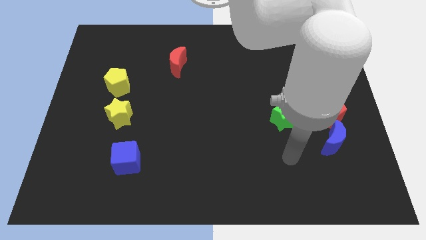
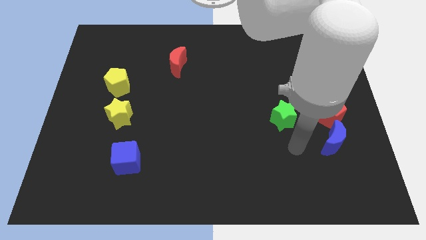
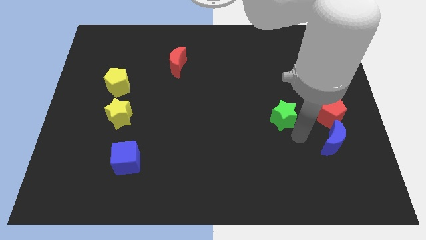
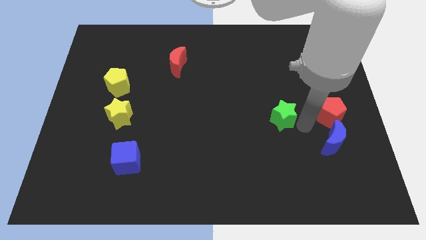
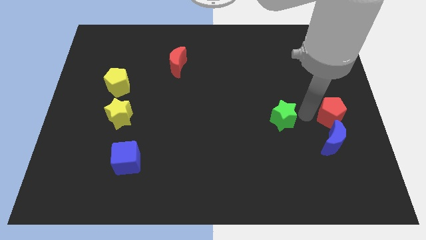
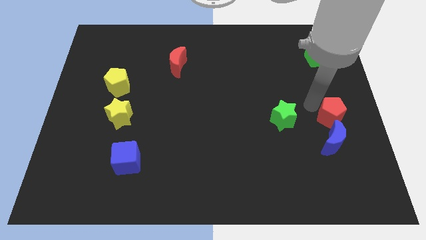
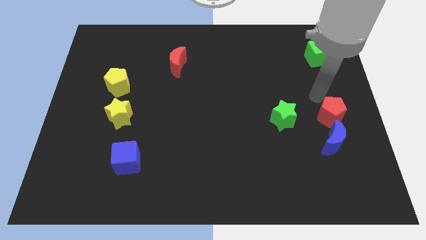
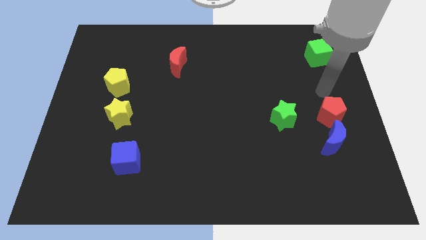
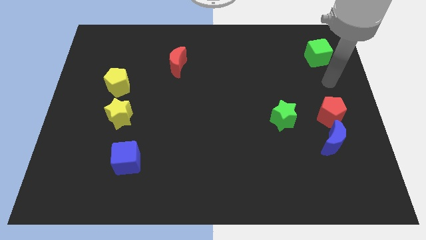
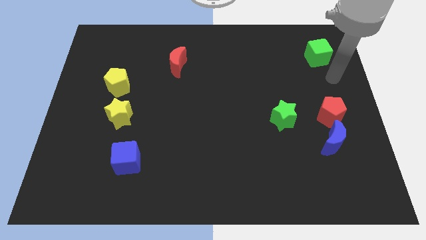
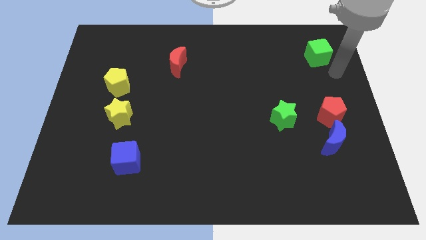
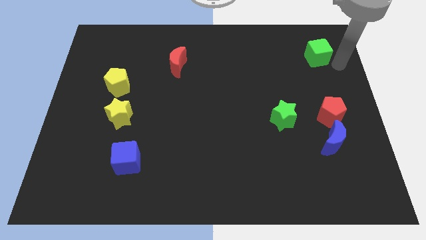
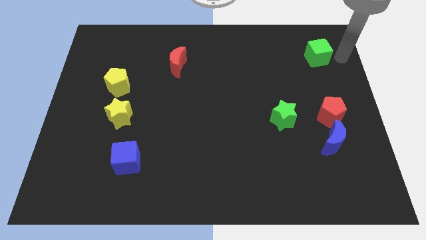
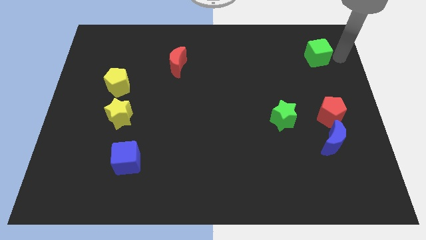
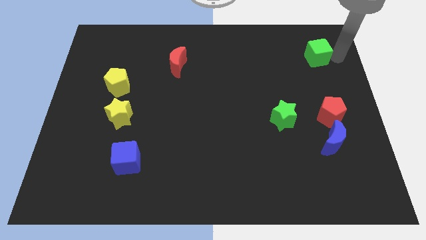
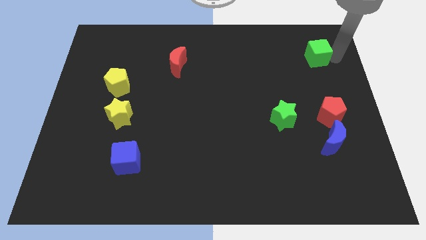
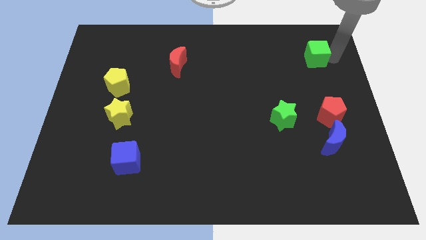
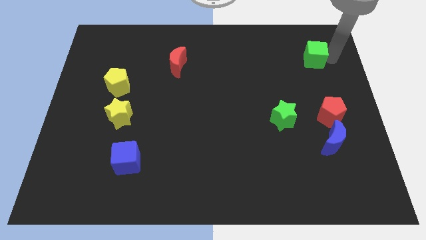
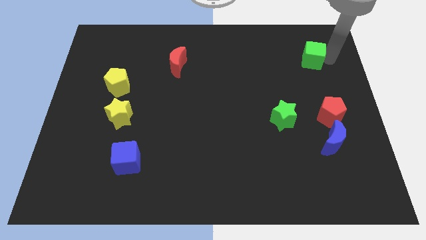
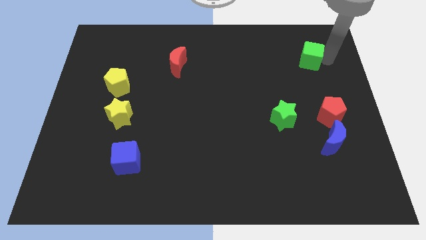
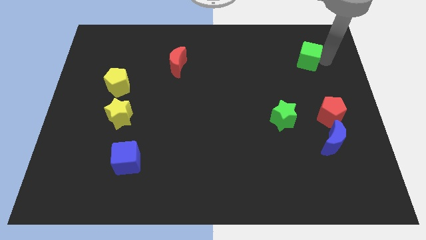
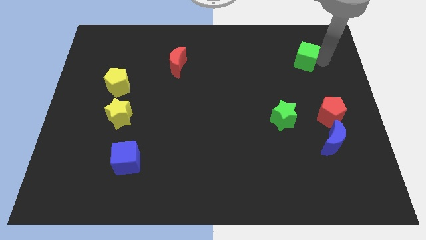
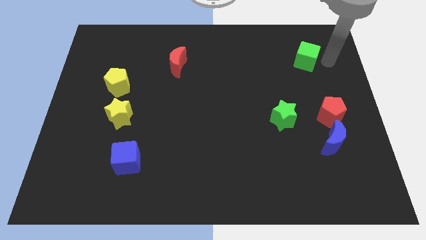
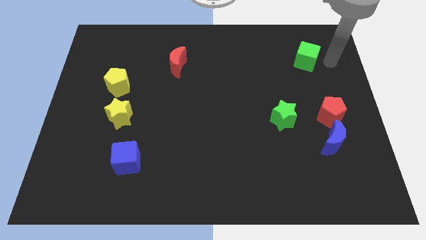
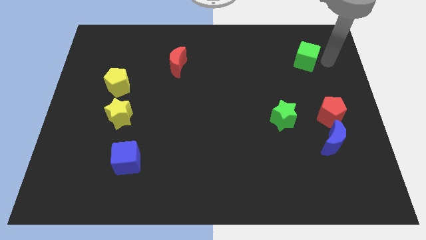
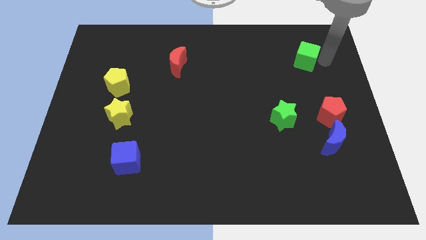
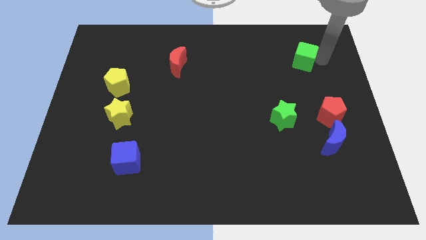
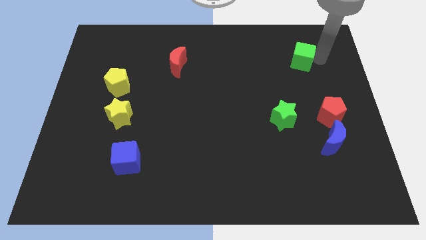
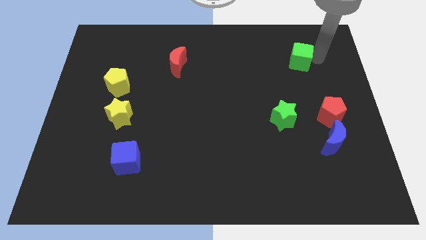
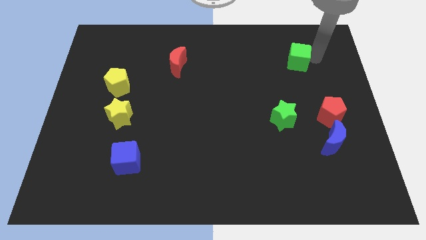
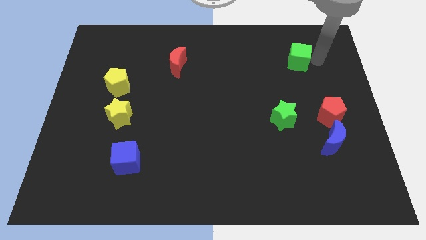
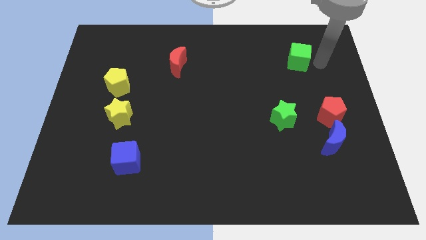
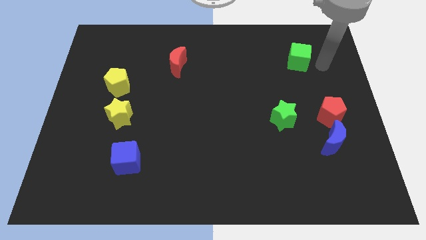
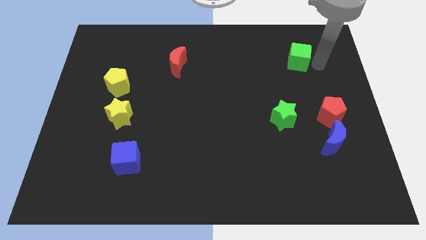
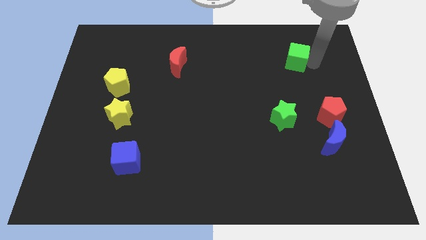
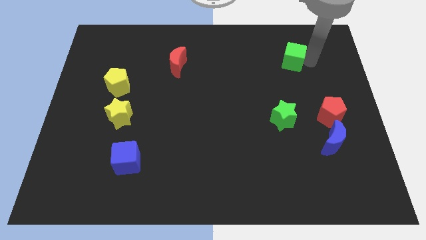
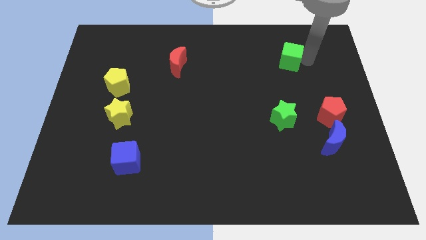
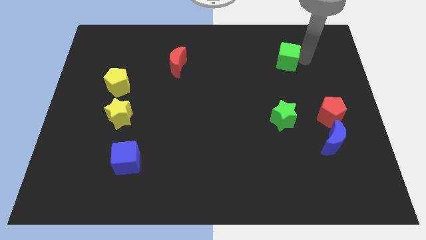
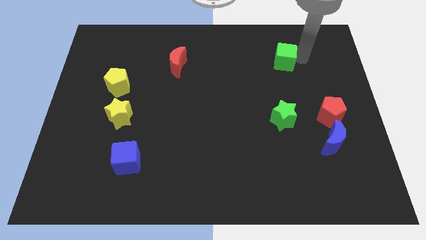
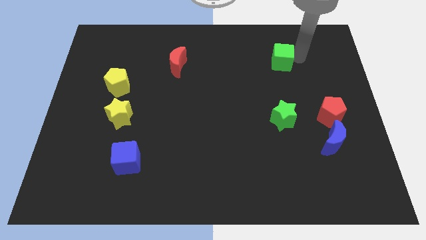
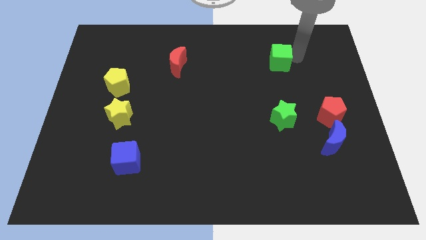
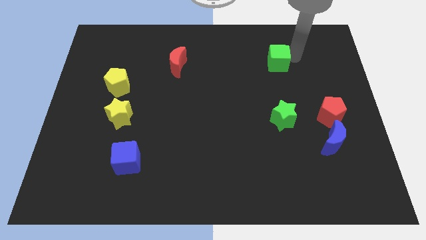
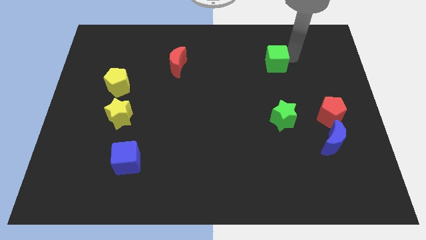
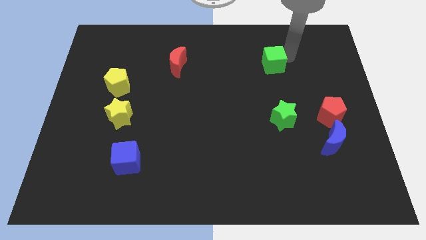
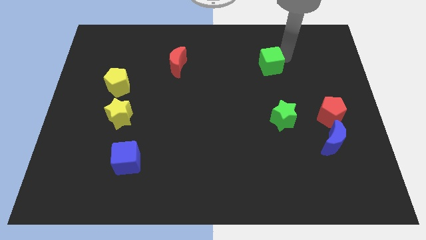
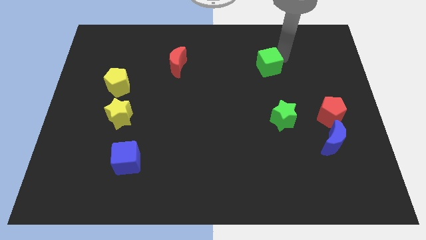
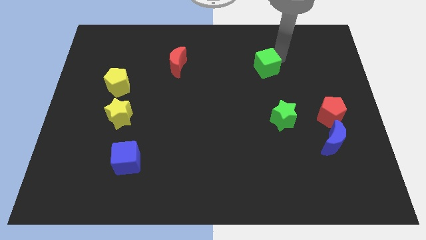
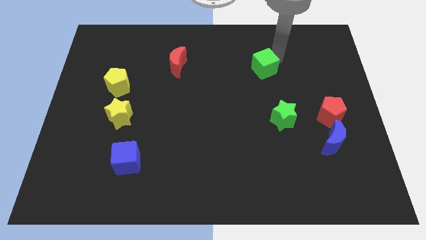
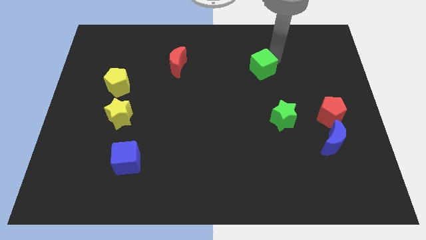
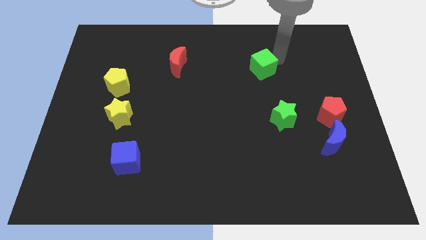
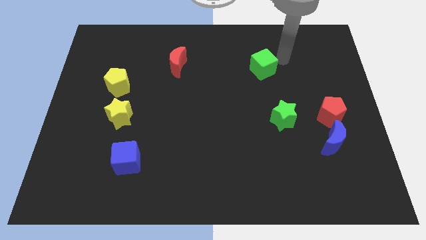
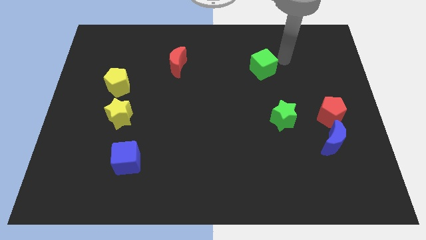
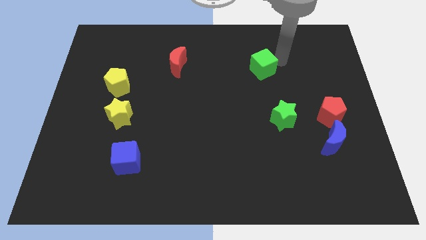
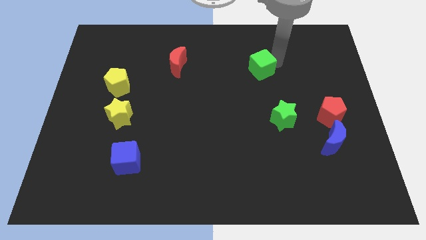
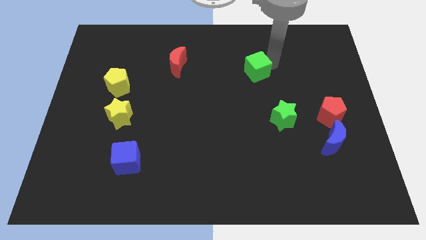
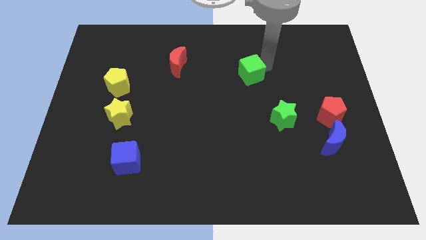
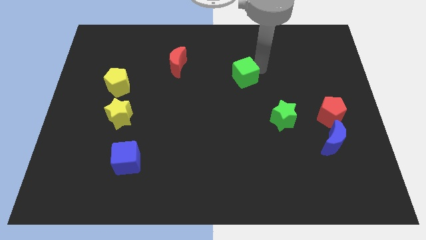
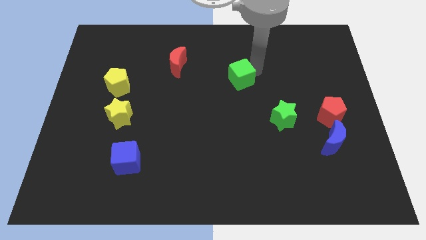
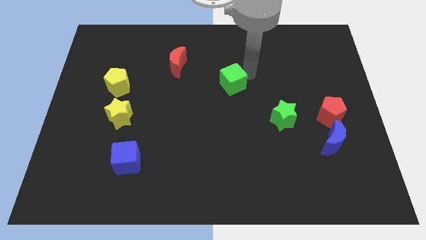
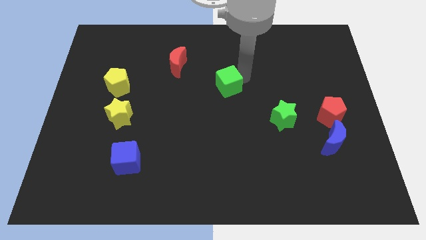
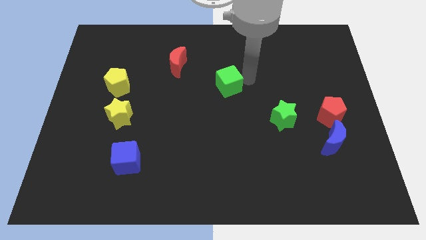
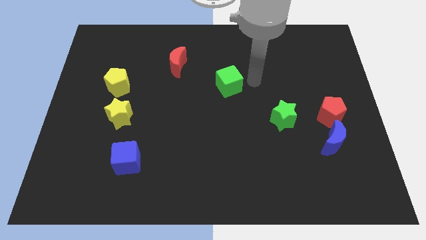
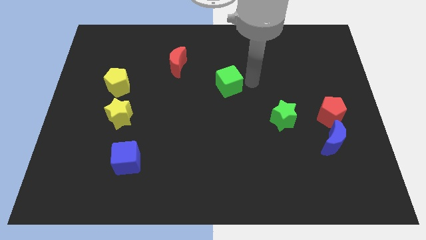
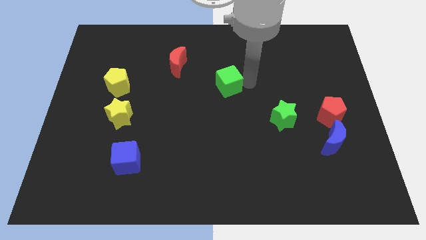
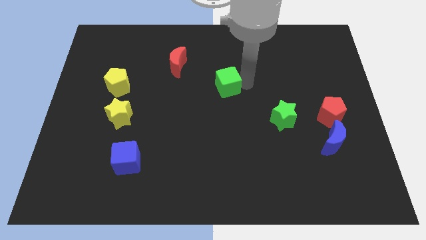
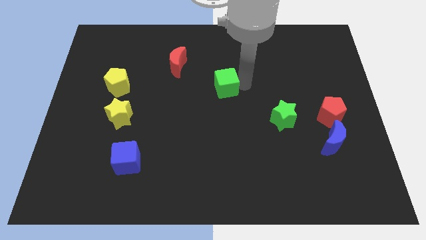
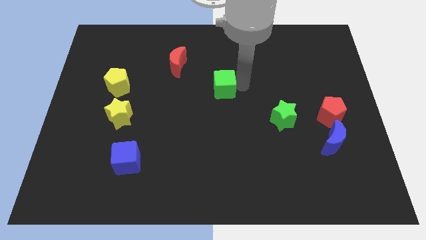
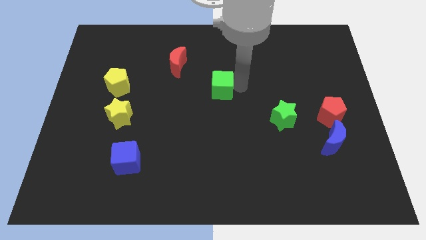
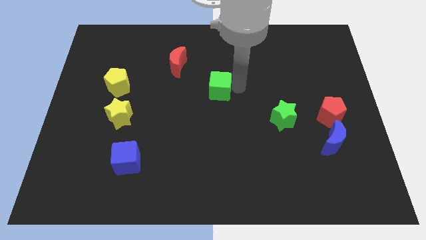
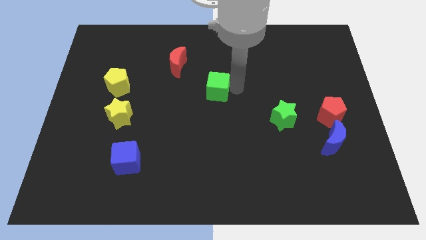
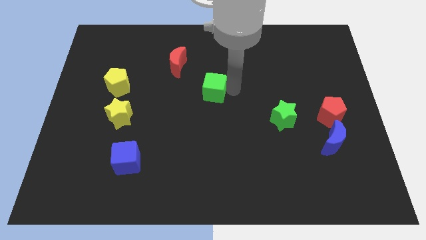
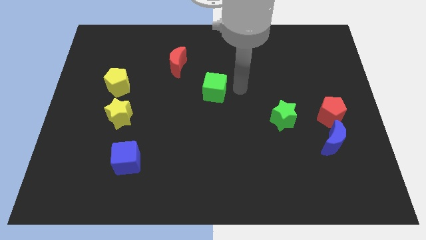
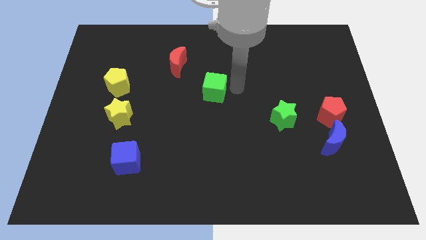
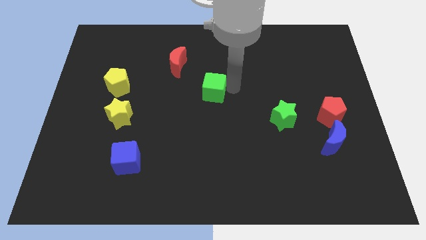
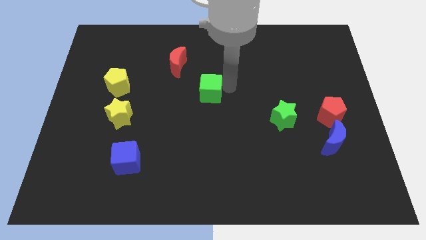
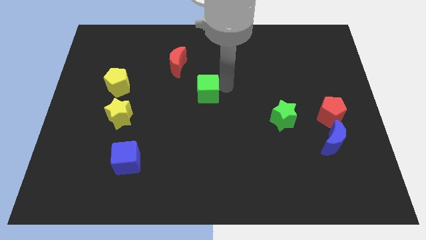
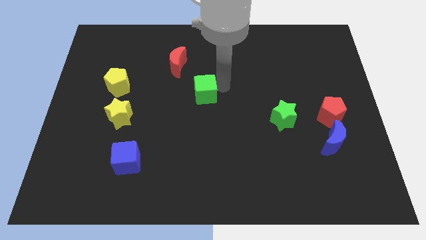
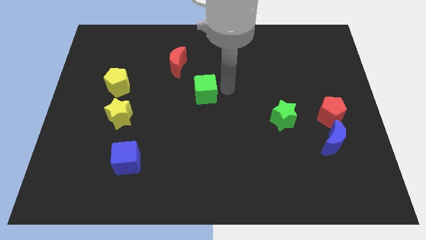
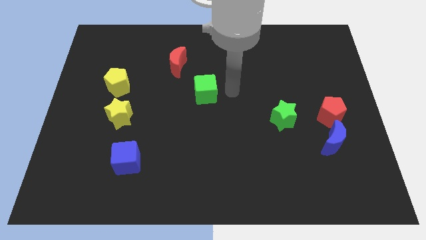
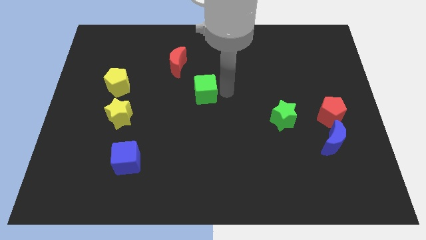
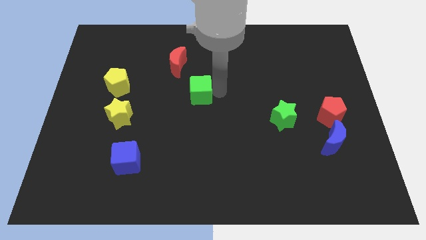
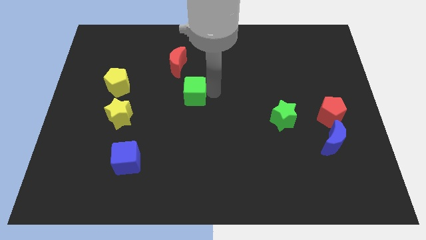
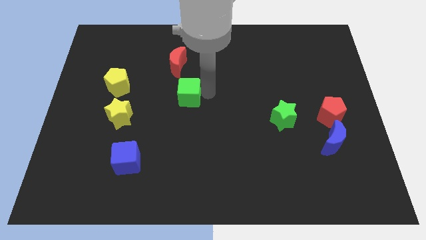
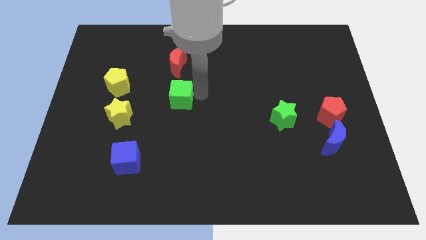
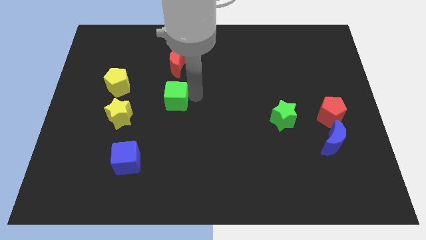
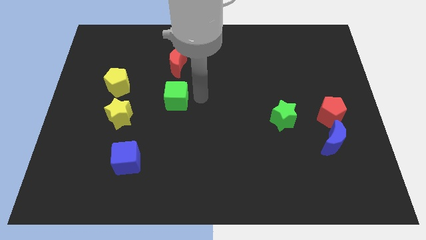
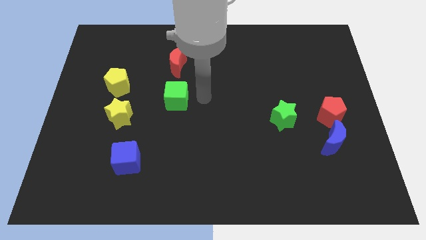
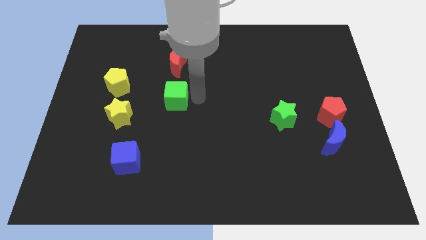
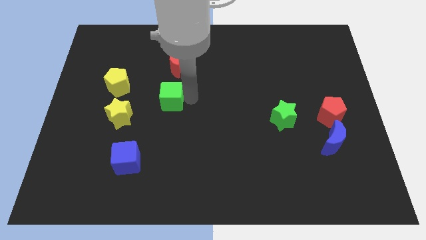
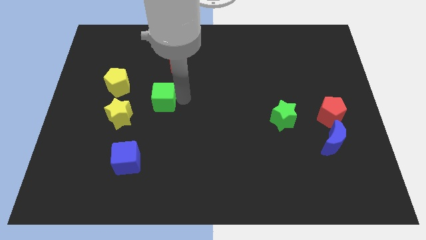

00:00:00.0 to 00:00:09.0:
slide the green cube to the top right side of the yellow star
